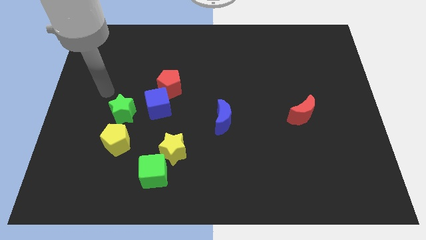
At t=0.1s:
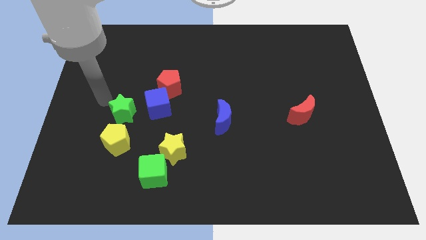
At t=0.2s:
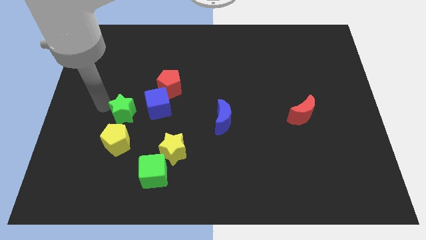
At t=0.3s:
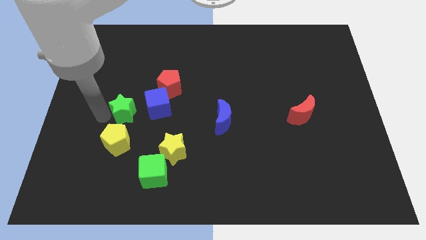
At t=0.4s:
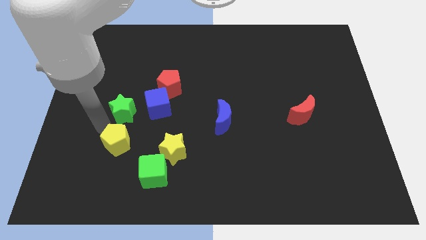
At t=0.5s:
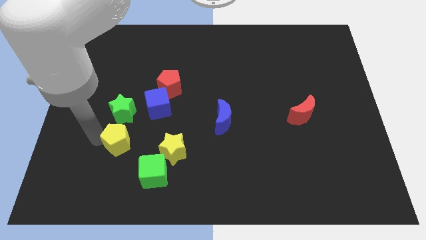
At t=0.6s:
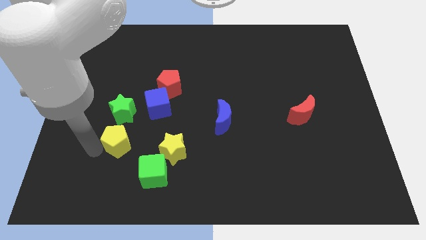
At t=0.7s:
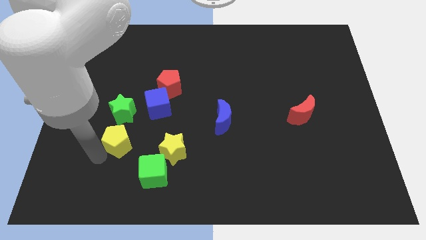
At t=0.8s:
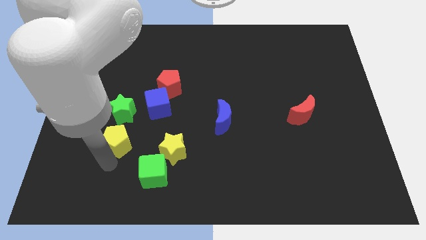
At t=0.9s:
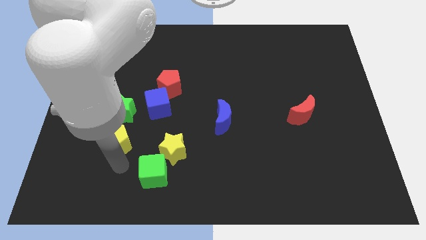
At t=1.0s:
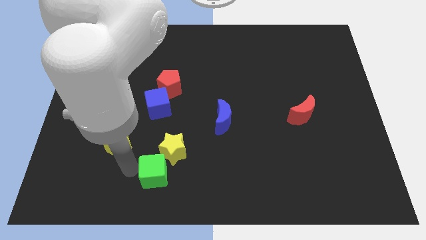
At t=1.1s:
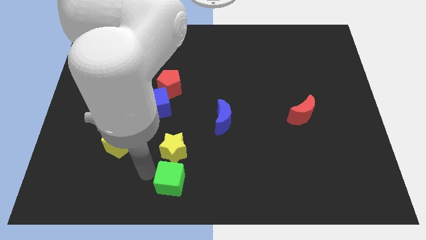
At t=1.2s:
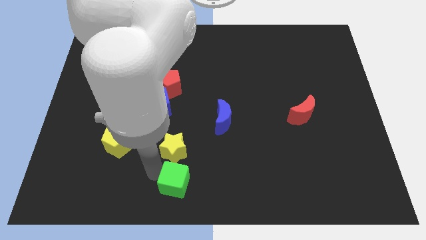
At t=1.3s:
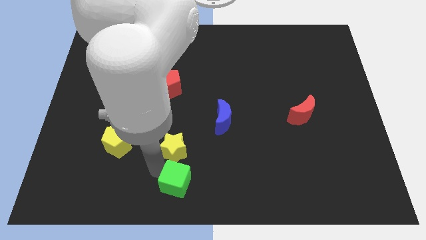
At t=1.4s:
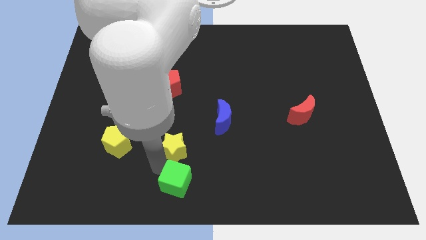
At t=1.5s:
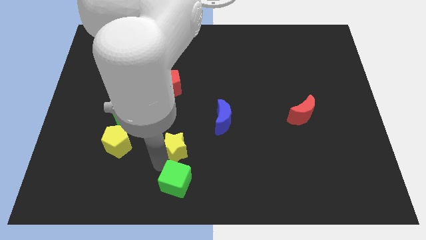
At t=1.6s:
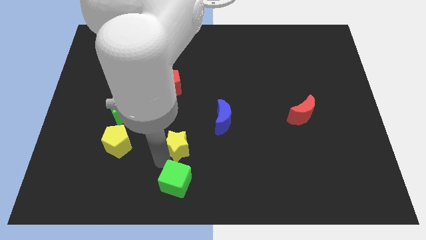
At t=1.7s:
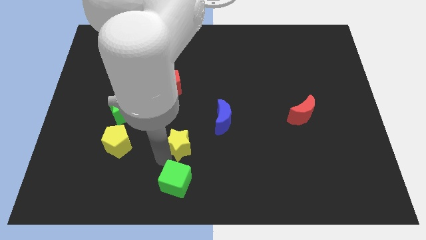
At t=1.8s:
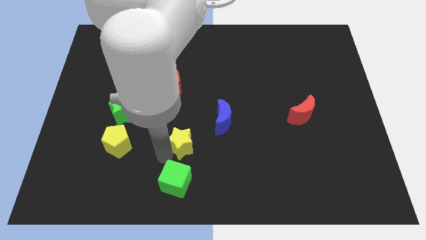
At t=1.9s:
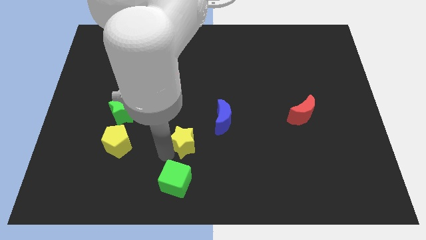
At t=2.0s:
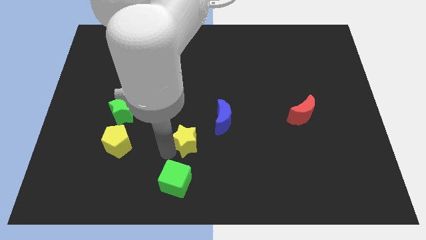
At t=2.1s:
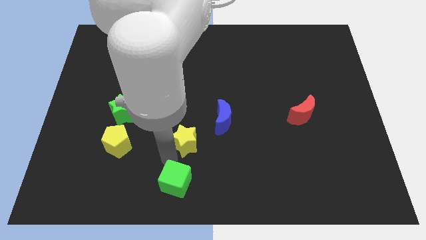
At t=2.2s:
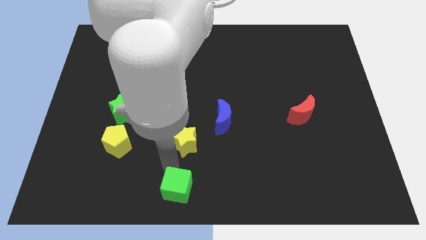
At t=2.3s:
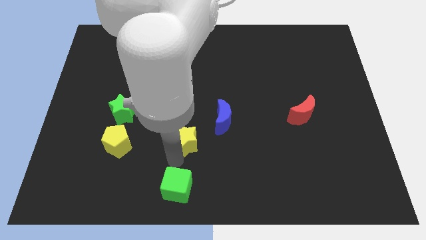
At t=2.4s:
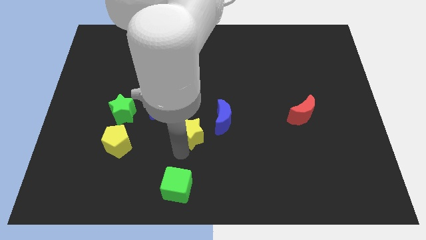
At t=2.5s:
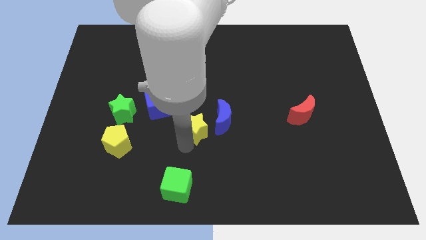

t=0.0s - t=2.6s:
slide the yellow star diagonally up and right a bit

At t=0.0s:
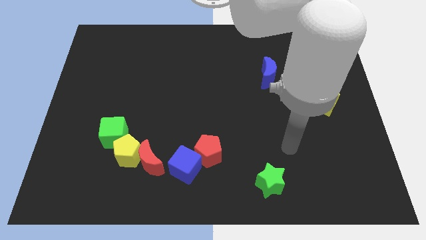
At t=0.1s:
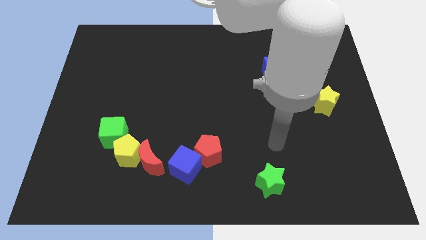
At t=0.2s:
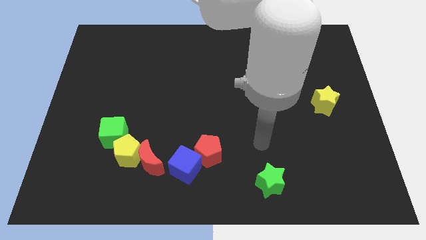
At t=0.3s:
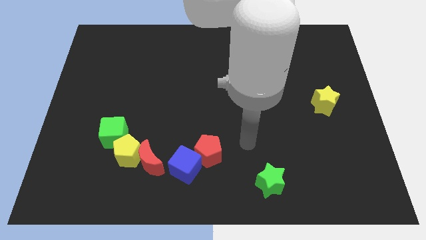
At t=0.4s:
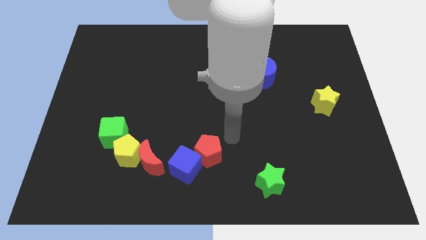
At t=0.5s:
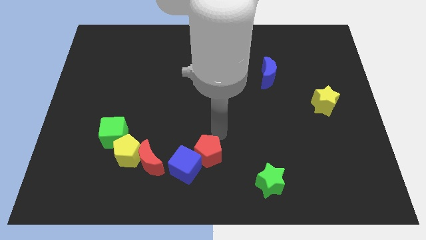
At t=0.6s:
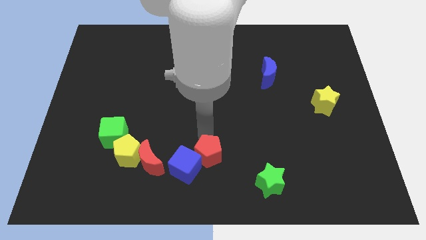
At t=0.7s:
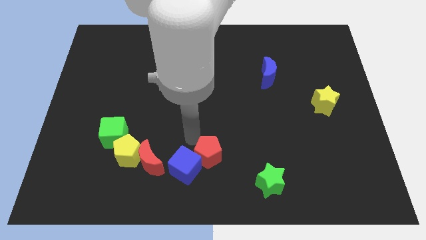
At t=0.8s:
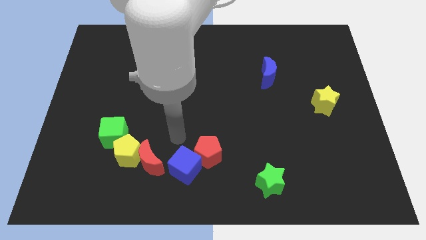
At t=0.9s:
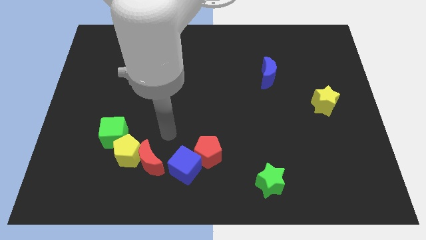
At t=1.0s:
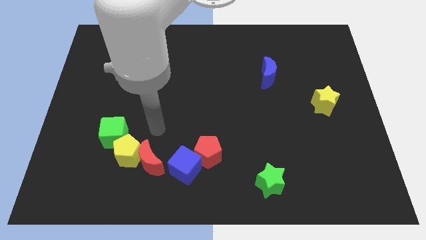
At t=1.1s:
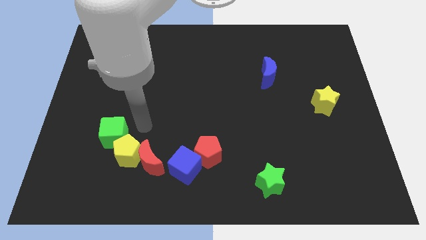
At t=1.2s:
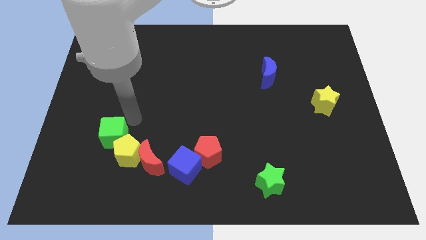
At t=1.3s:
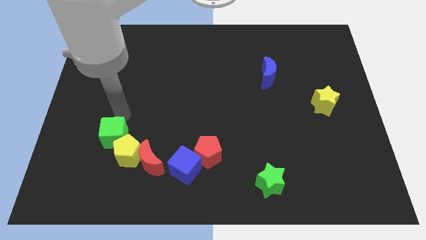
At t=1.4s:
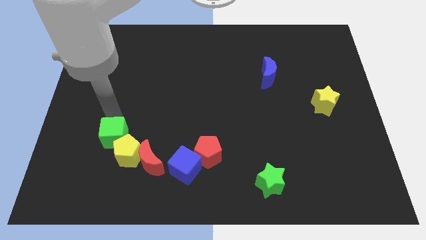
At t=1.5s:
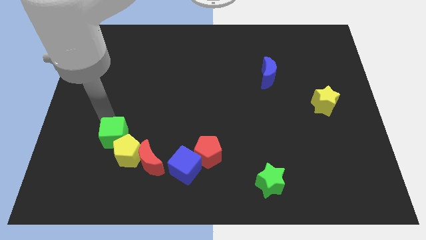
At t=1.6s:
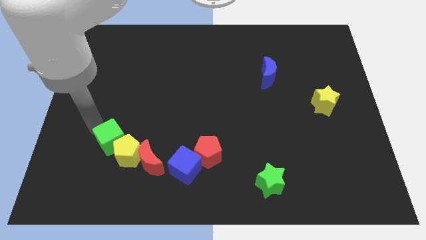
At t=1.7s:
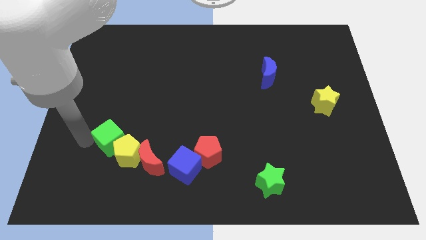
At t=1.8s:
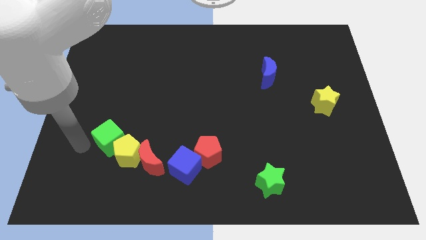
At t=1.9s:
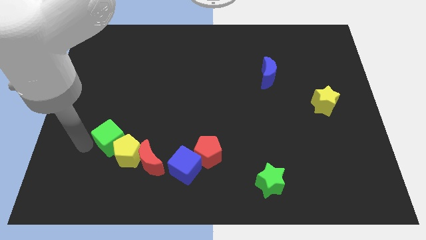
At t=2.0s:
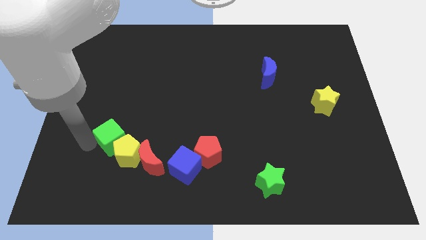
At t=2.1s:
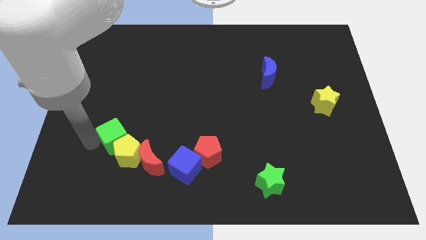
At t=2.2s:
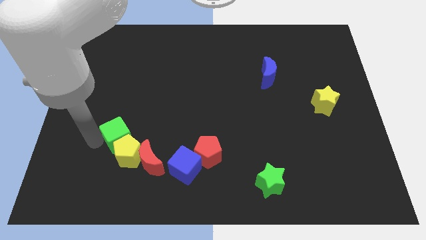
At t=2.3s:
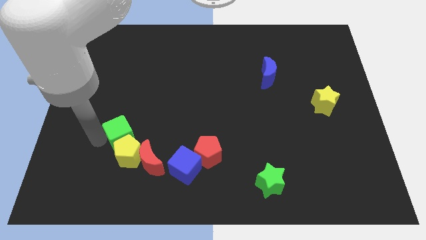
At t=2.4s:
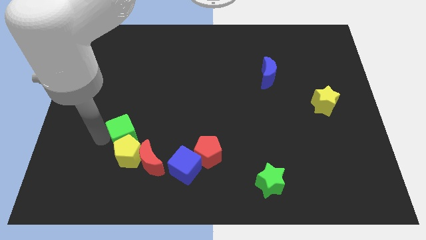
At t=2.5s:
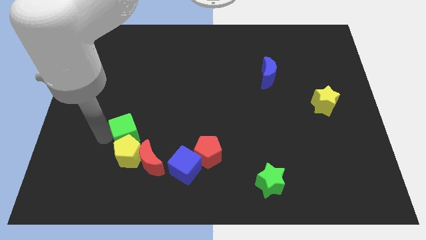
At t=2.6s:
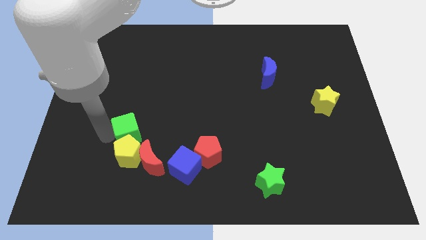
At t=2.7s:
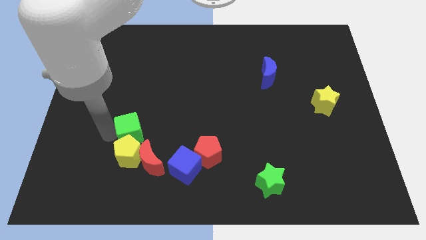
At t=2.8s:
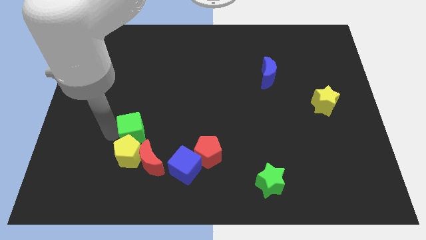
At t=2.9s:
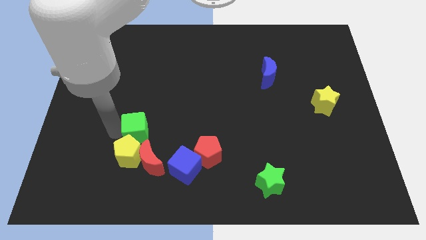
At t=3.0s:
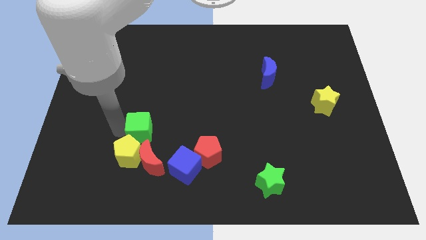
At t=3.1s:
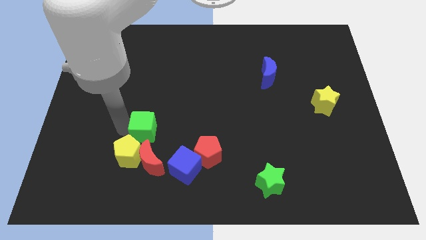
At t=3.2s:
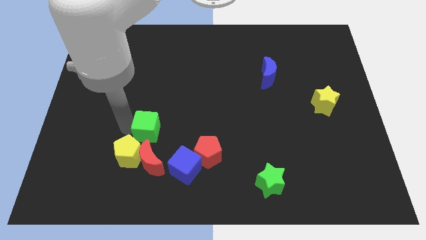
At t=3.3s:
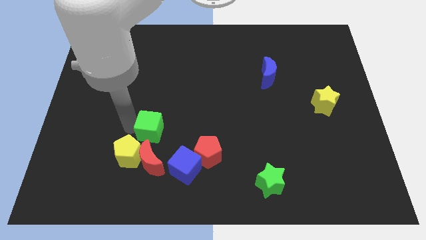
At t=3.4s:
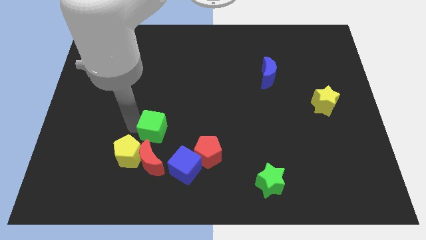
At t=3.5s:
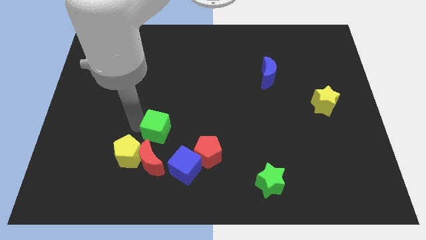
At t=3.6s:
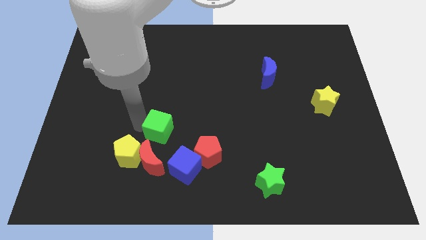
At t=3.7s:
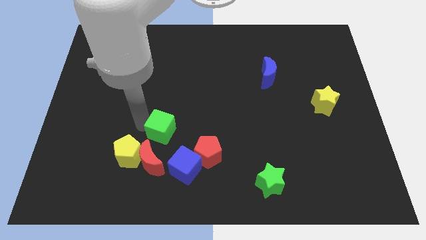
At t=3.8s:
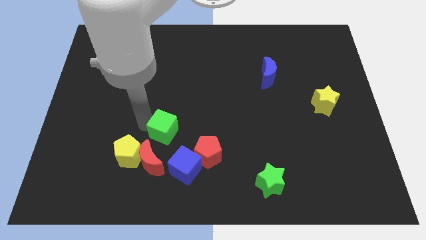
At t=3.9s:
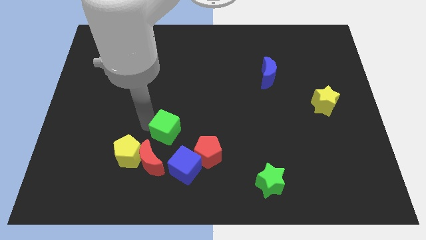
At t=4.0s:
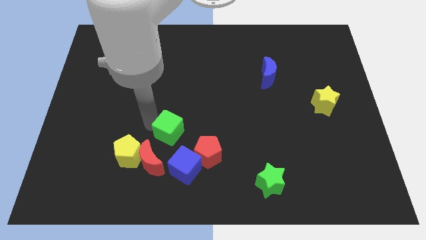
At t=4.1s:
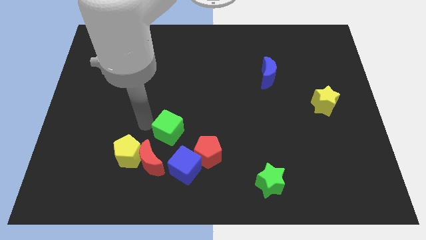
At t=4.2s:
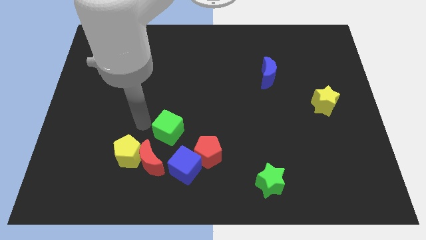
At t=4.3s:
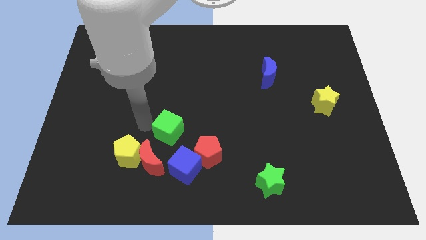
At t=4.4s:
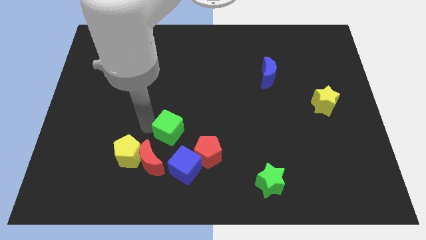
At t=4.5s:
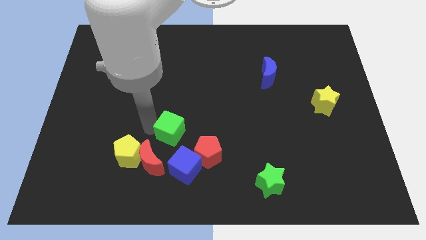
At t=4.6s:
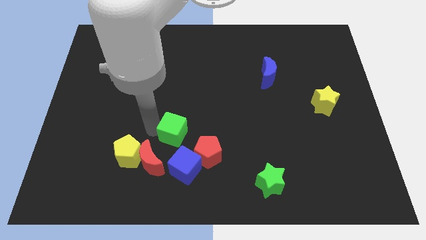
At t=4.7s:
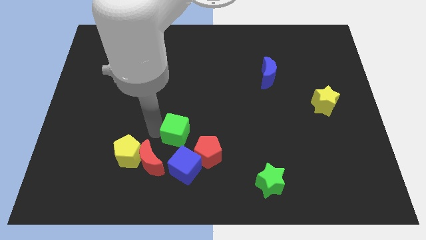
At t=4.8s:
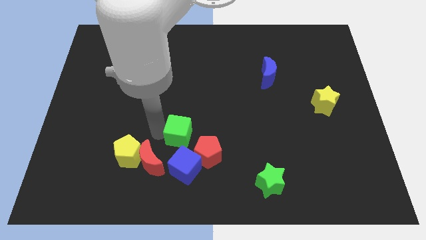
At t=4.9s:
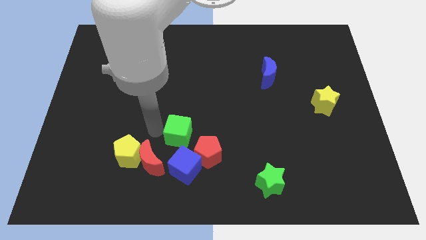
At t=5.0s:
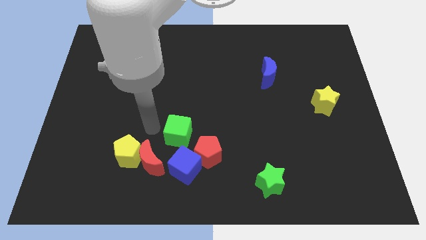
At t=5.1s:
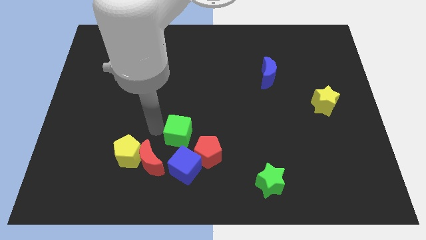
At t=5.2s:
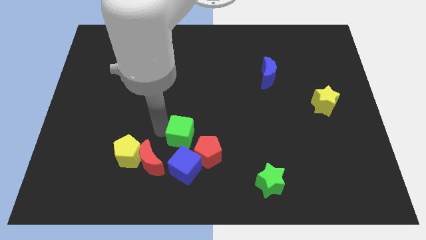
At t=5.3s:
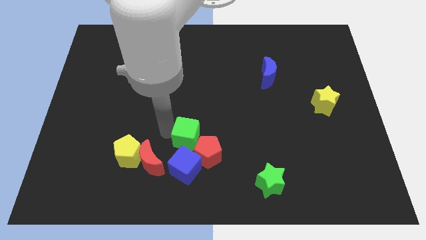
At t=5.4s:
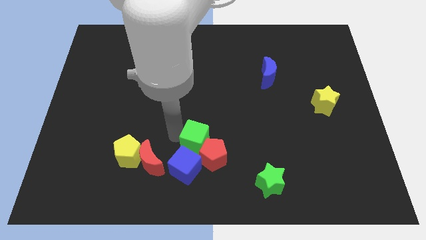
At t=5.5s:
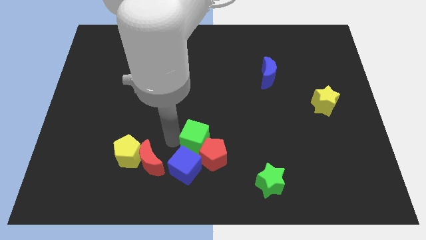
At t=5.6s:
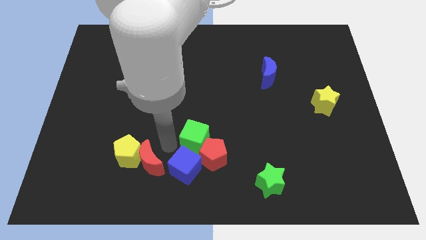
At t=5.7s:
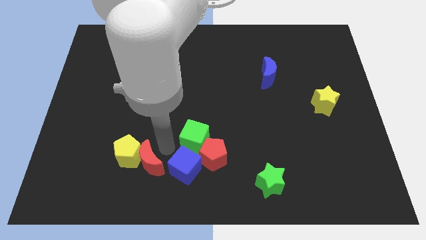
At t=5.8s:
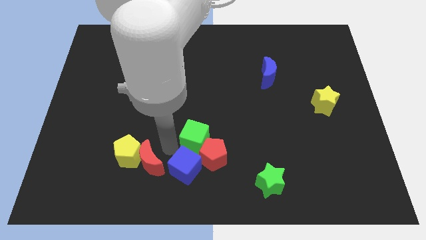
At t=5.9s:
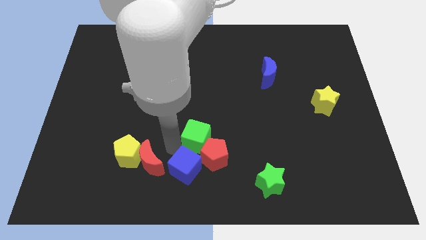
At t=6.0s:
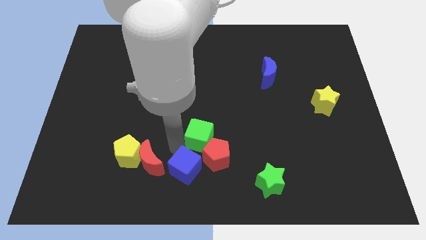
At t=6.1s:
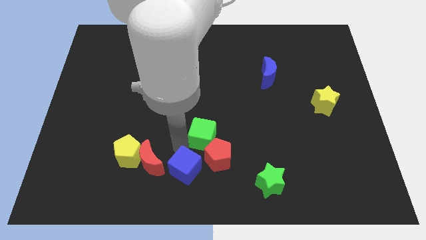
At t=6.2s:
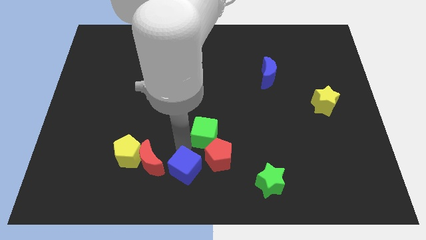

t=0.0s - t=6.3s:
slide the green cube right
